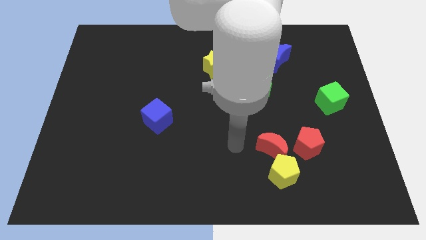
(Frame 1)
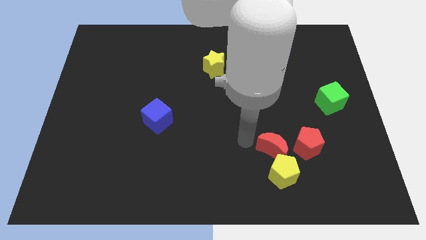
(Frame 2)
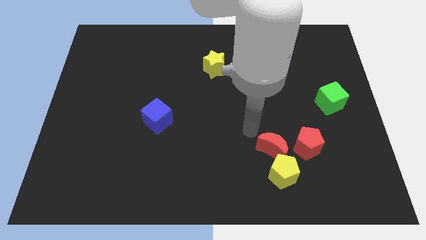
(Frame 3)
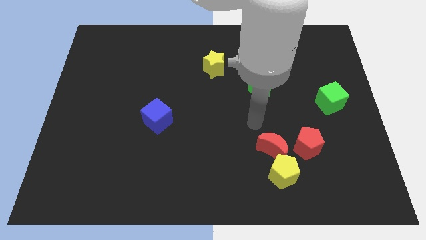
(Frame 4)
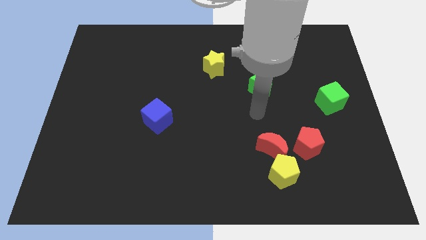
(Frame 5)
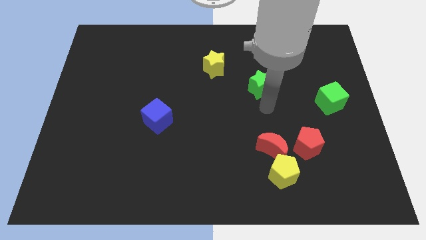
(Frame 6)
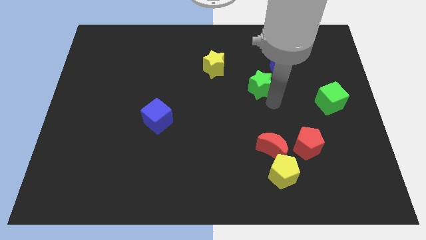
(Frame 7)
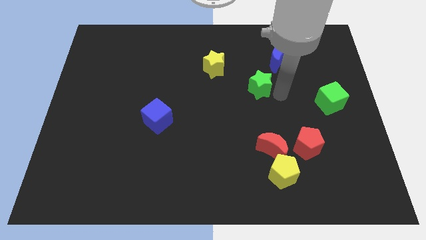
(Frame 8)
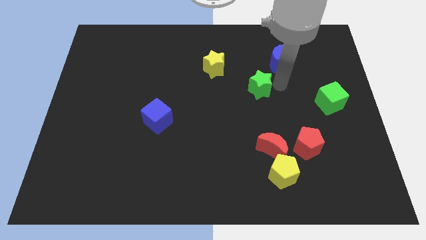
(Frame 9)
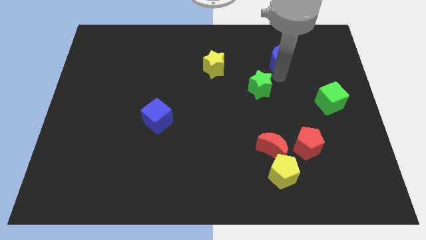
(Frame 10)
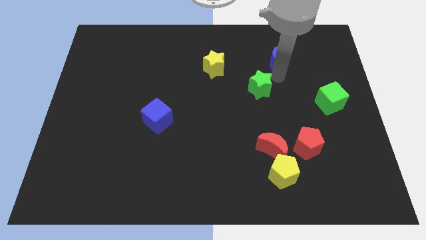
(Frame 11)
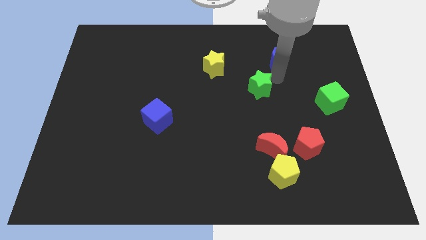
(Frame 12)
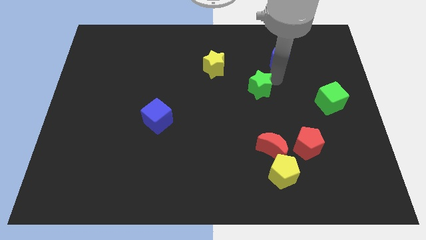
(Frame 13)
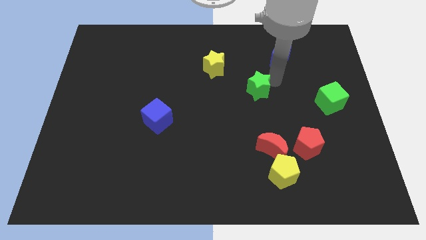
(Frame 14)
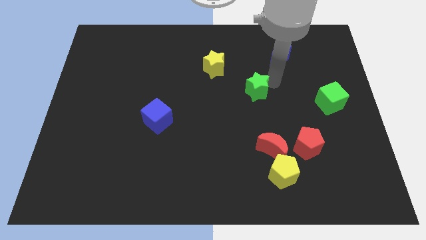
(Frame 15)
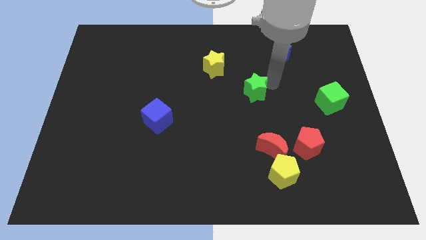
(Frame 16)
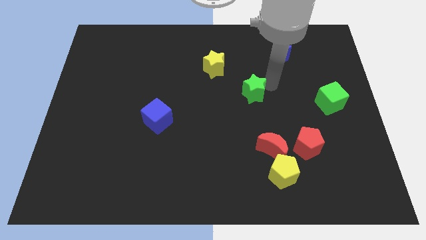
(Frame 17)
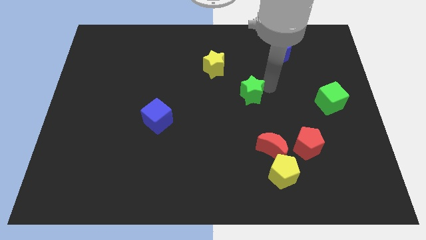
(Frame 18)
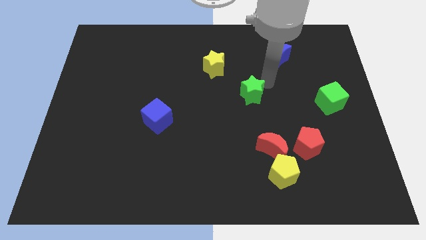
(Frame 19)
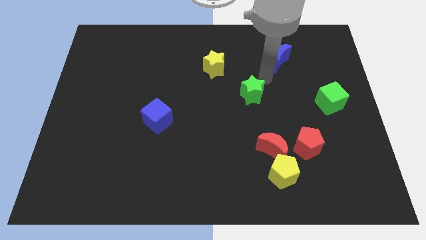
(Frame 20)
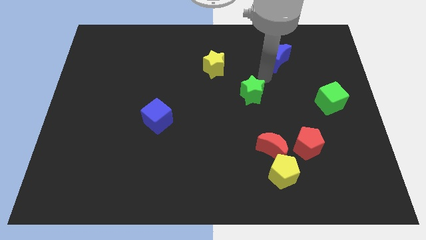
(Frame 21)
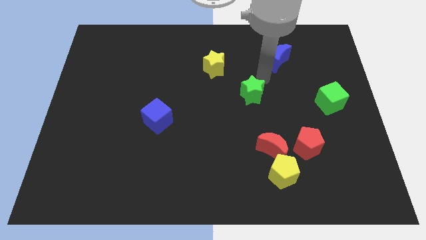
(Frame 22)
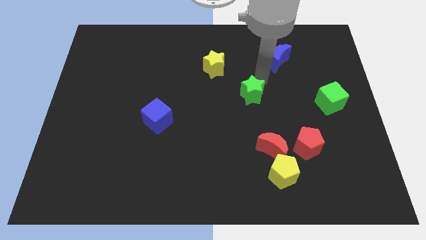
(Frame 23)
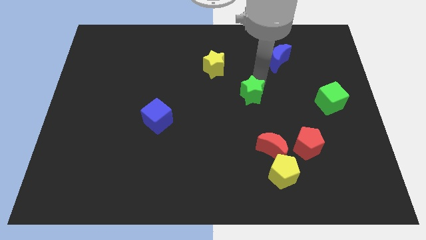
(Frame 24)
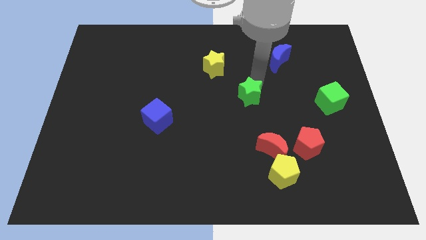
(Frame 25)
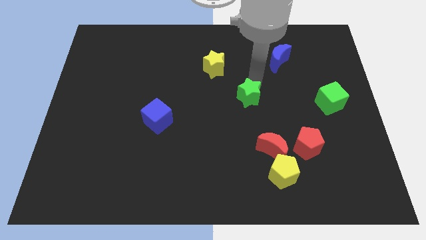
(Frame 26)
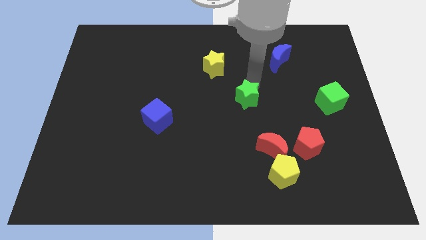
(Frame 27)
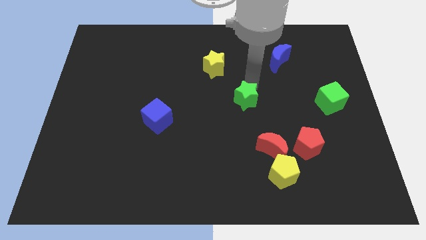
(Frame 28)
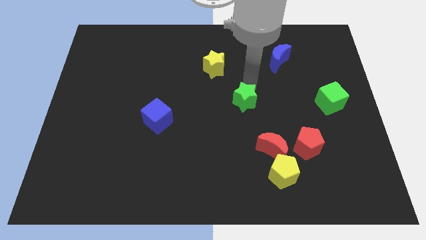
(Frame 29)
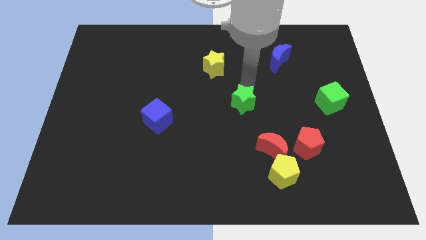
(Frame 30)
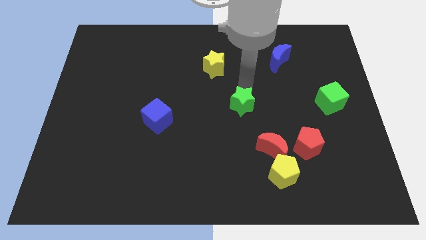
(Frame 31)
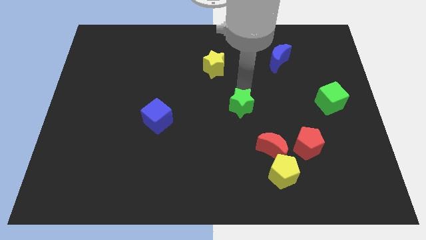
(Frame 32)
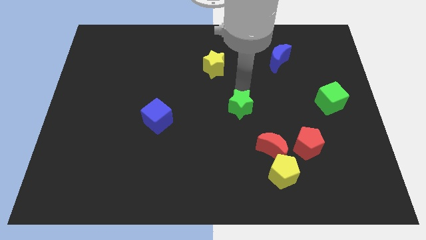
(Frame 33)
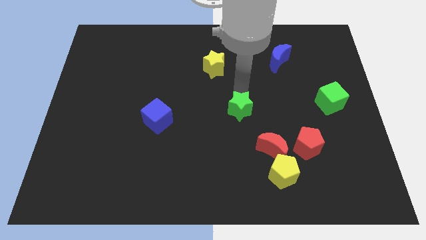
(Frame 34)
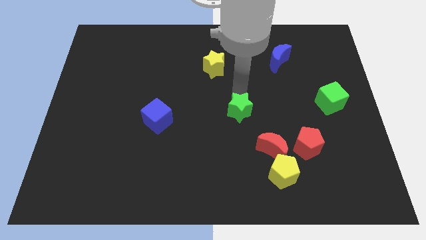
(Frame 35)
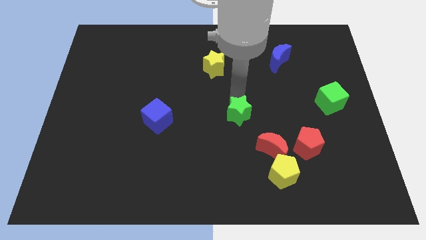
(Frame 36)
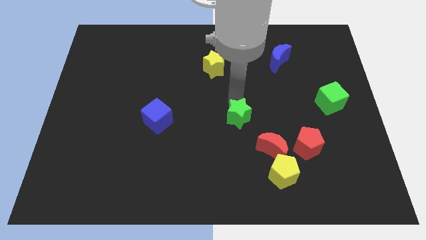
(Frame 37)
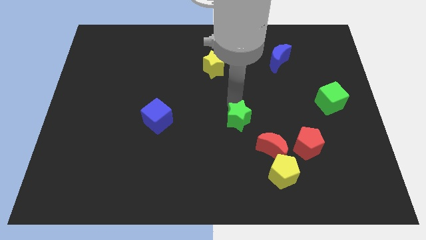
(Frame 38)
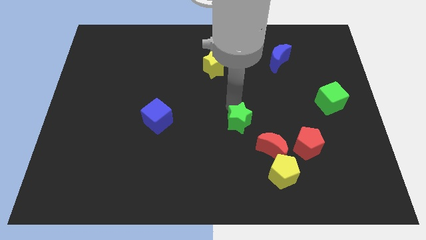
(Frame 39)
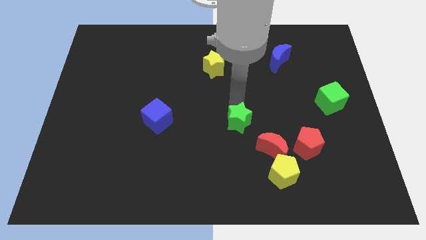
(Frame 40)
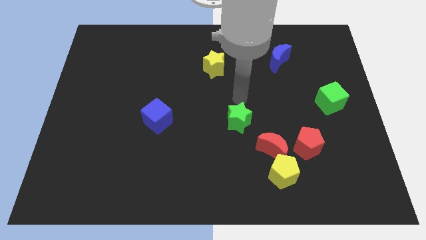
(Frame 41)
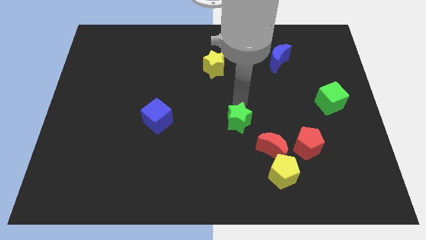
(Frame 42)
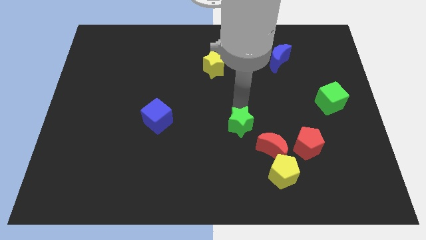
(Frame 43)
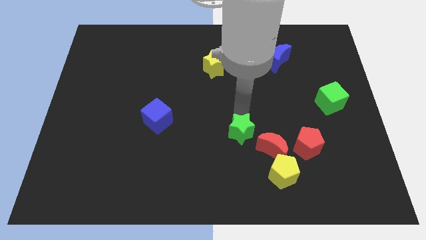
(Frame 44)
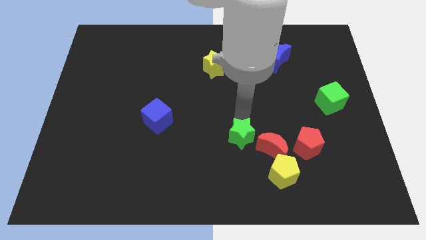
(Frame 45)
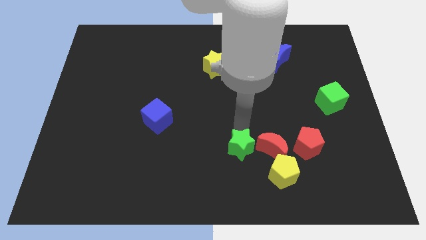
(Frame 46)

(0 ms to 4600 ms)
push the green star to the bottom left of the red moon

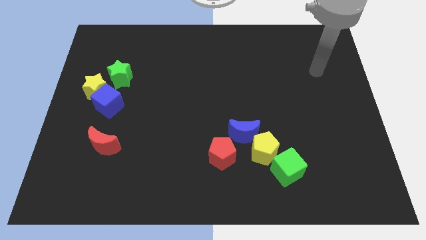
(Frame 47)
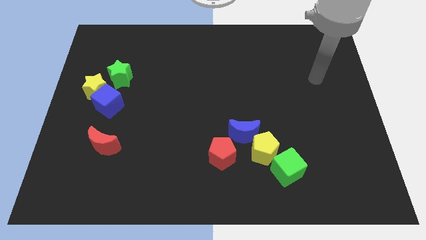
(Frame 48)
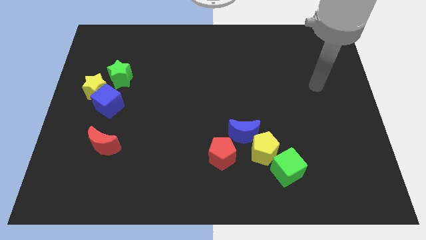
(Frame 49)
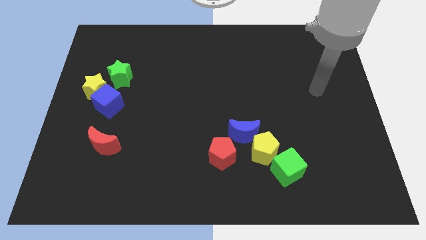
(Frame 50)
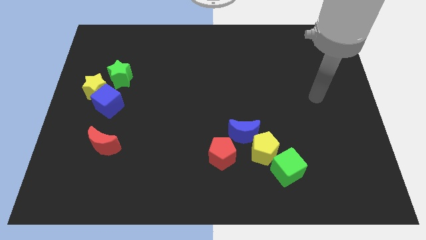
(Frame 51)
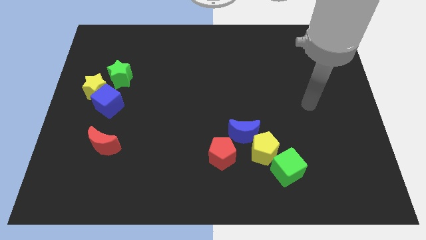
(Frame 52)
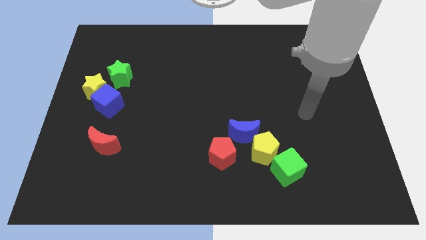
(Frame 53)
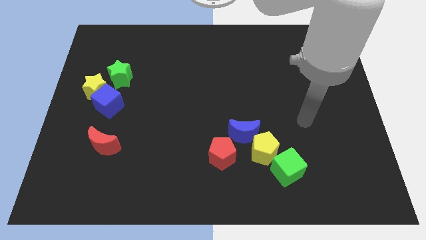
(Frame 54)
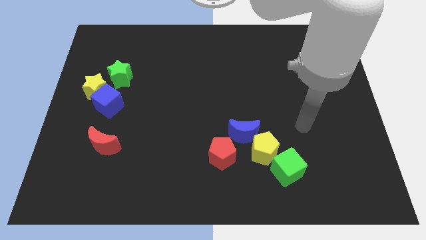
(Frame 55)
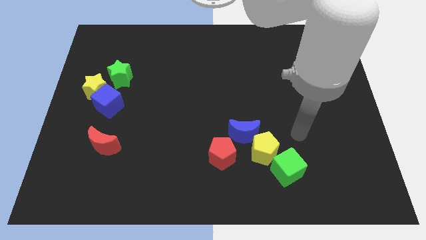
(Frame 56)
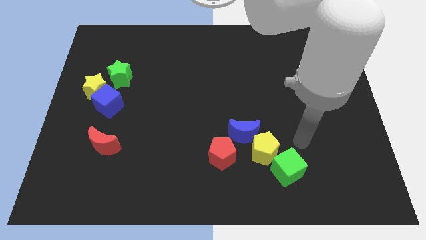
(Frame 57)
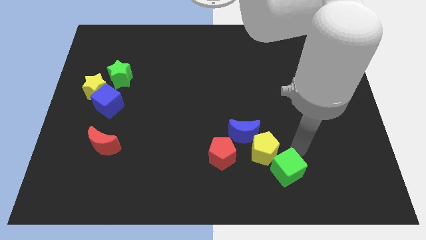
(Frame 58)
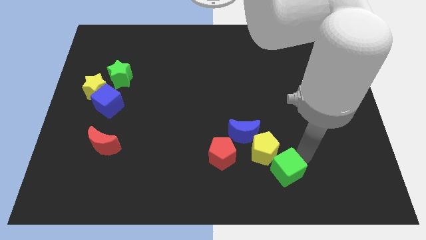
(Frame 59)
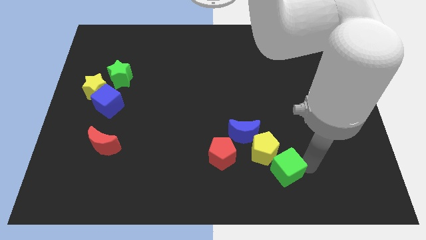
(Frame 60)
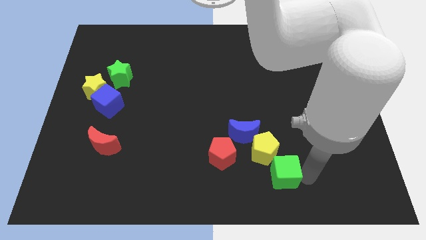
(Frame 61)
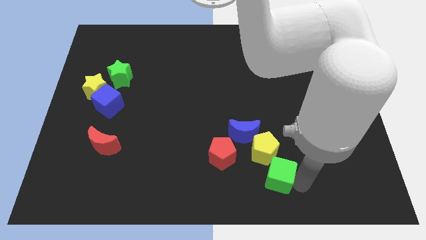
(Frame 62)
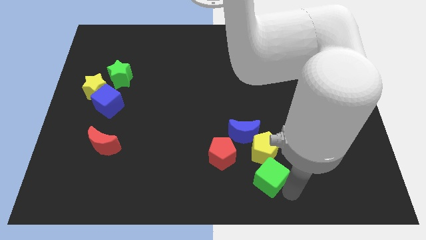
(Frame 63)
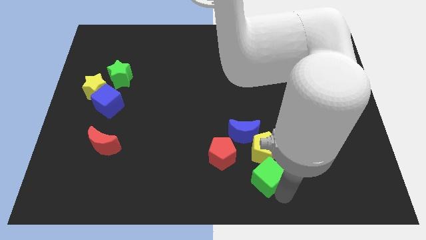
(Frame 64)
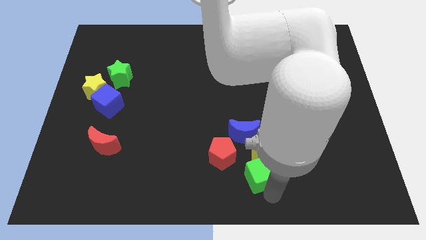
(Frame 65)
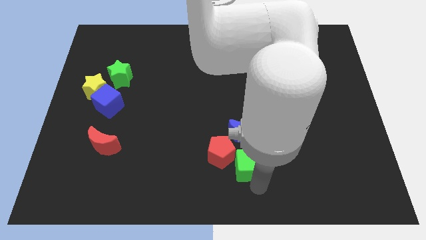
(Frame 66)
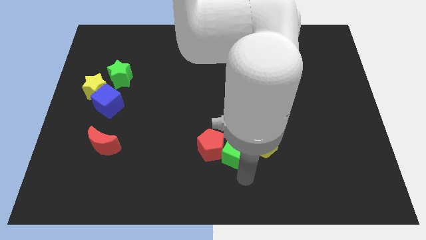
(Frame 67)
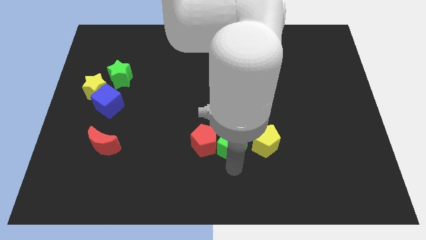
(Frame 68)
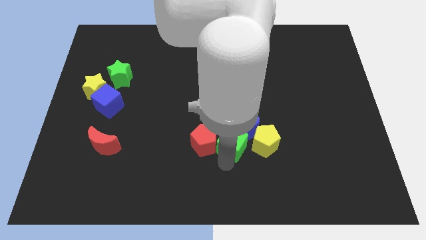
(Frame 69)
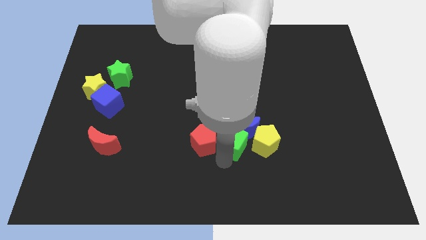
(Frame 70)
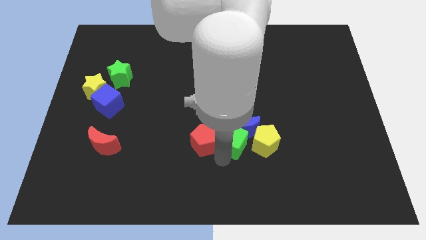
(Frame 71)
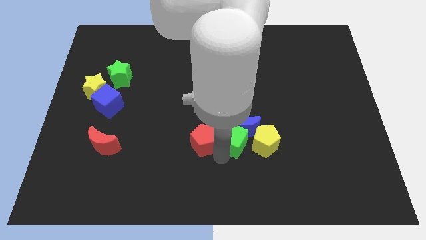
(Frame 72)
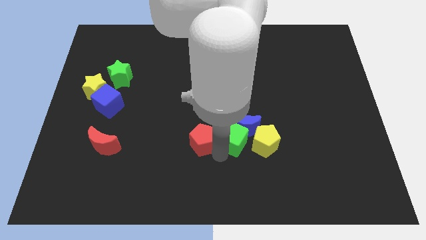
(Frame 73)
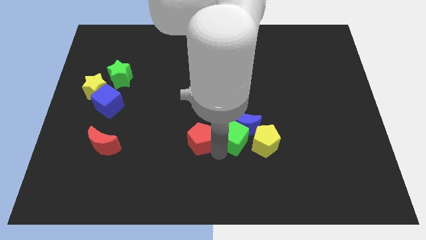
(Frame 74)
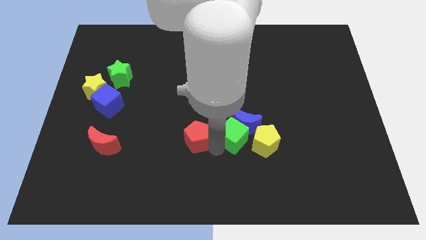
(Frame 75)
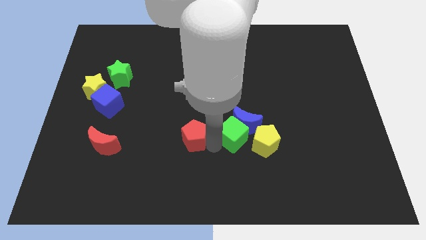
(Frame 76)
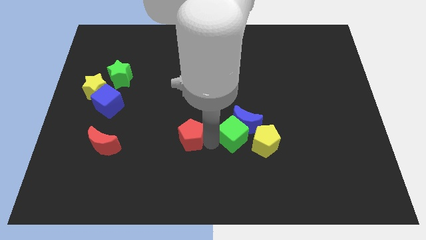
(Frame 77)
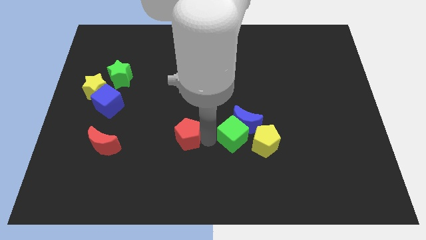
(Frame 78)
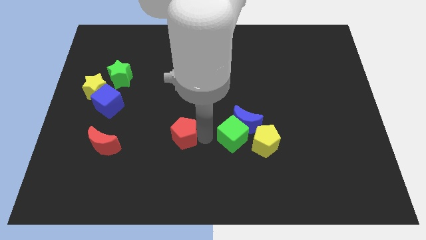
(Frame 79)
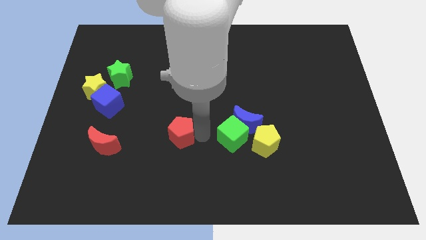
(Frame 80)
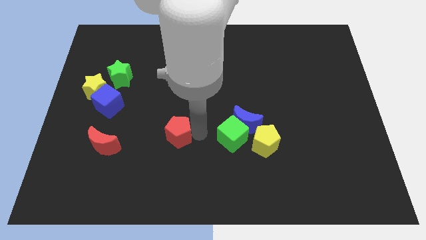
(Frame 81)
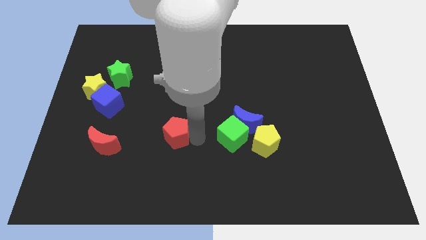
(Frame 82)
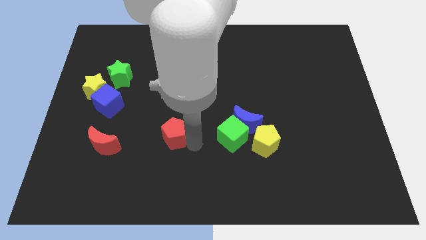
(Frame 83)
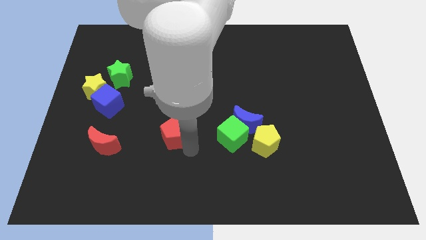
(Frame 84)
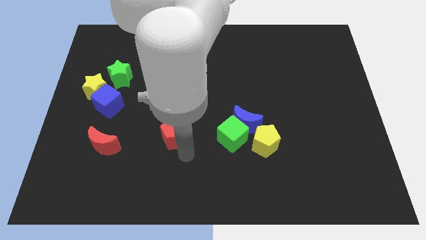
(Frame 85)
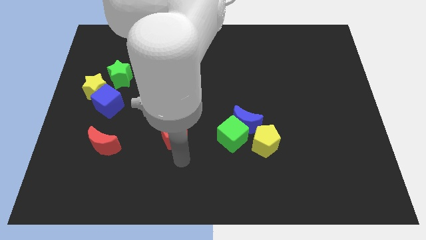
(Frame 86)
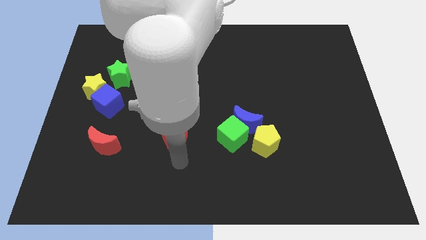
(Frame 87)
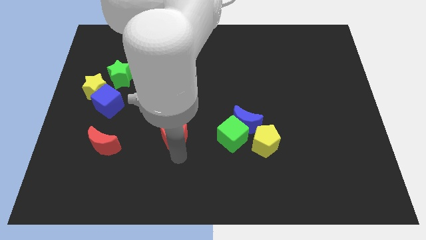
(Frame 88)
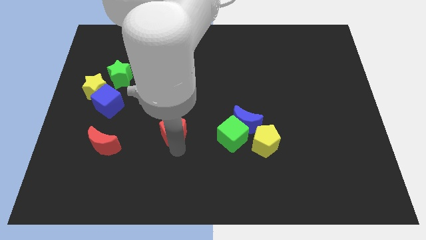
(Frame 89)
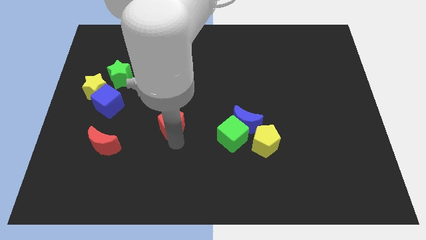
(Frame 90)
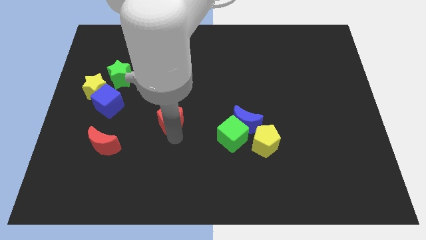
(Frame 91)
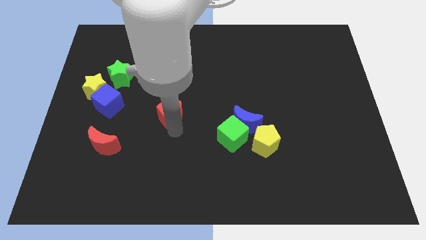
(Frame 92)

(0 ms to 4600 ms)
move the red pentagon right of the blue cube
